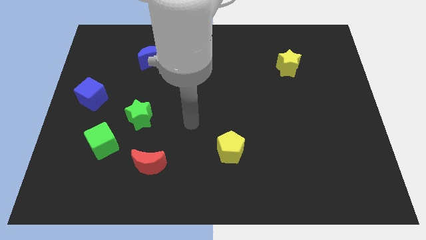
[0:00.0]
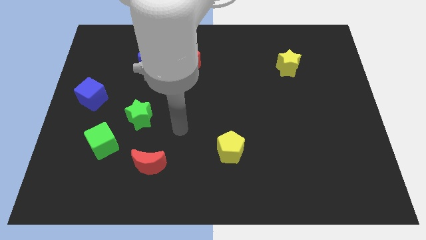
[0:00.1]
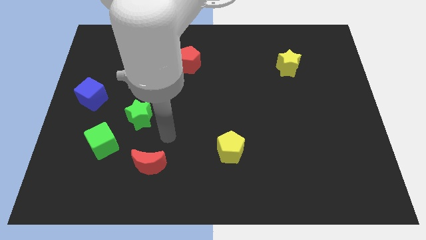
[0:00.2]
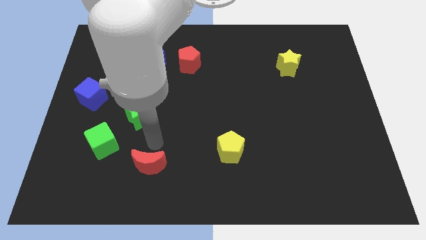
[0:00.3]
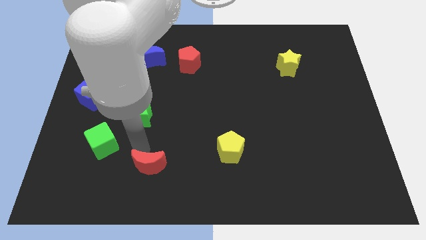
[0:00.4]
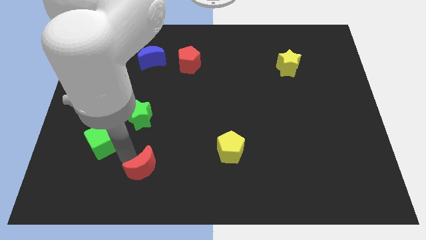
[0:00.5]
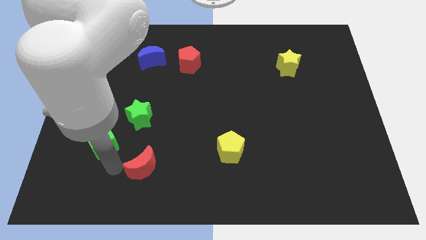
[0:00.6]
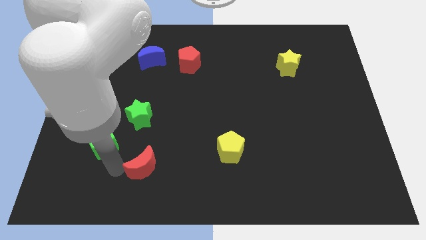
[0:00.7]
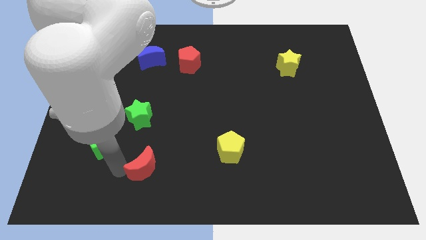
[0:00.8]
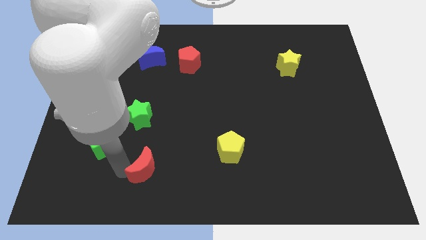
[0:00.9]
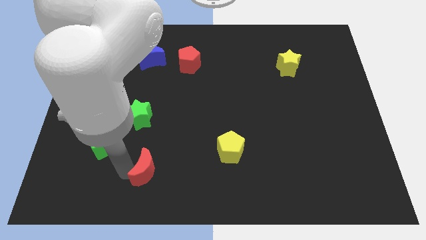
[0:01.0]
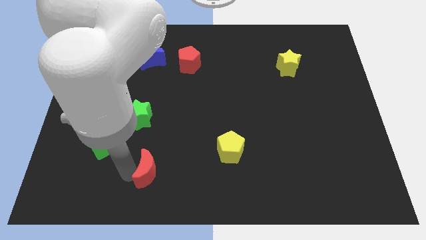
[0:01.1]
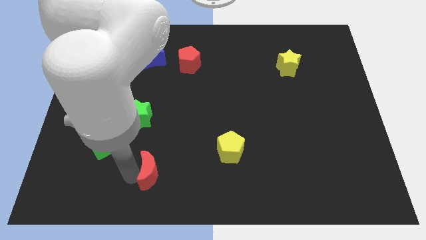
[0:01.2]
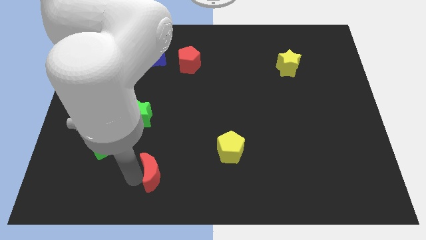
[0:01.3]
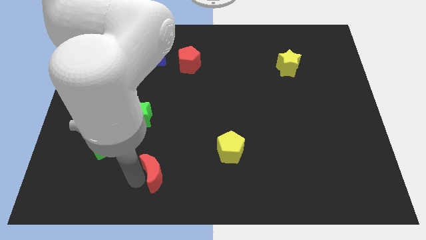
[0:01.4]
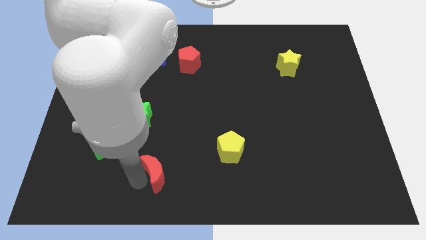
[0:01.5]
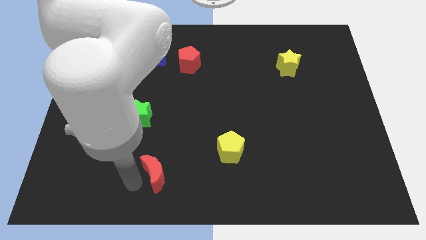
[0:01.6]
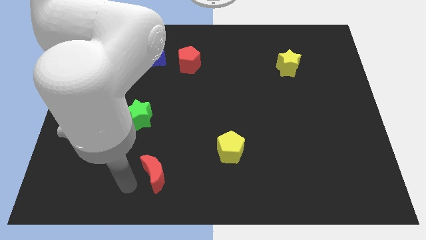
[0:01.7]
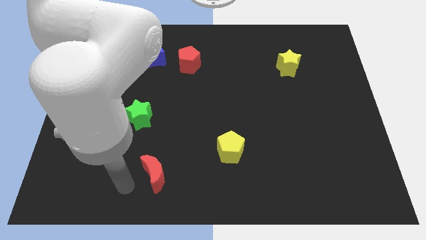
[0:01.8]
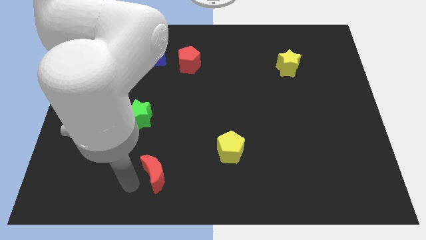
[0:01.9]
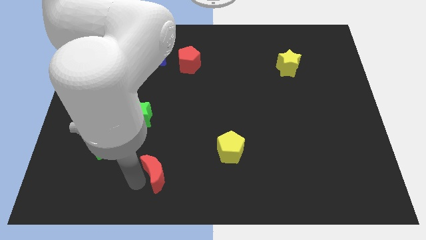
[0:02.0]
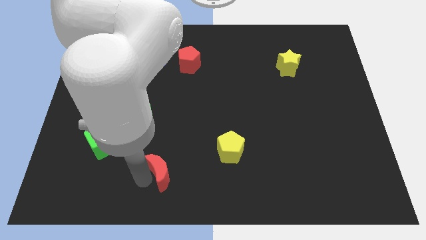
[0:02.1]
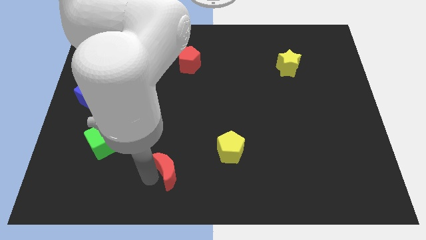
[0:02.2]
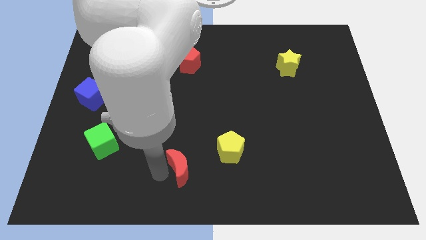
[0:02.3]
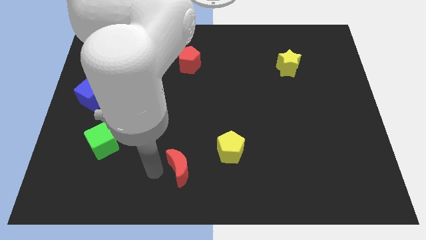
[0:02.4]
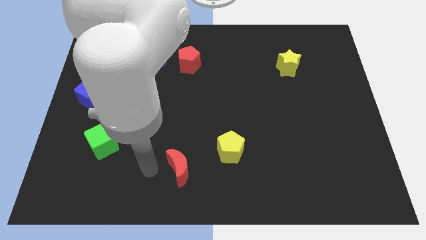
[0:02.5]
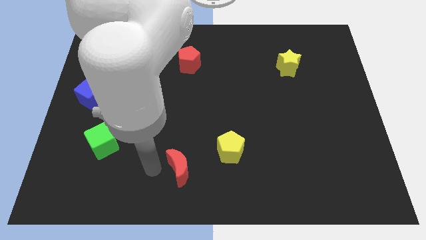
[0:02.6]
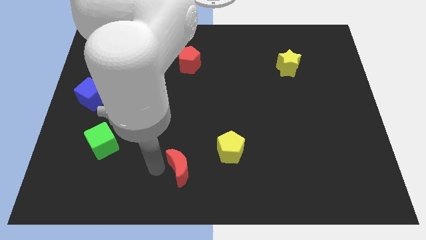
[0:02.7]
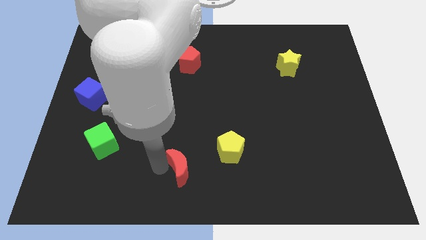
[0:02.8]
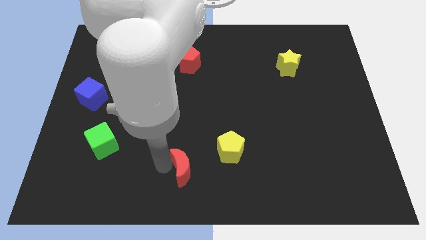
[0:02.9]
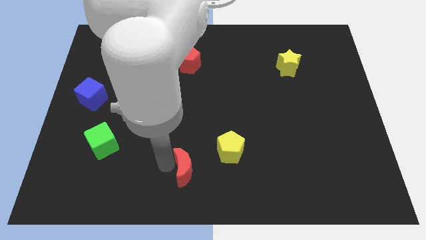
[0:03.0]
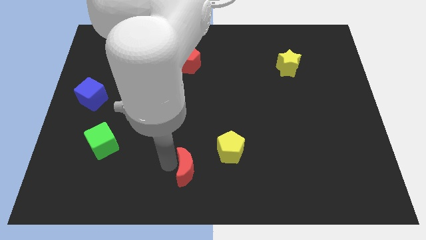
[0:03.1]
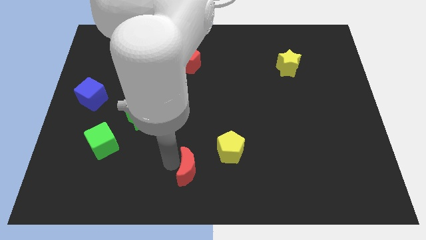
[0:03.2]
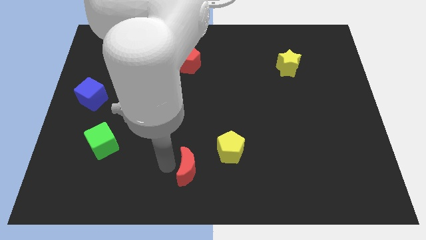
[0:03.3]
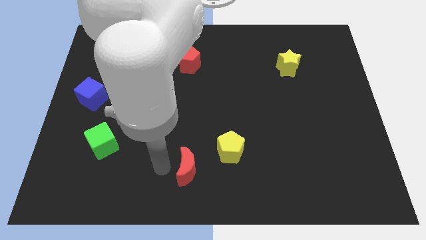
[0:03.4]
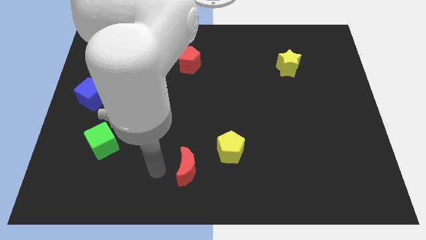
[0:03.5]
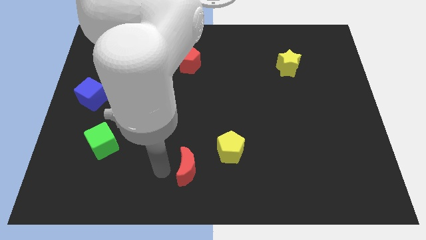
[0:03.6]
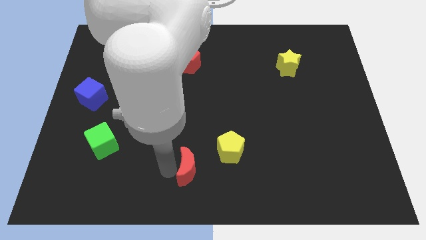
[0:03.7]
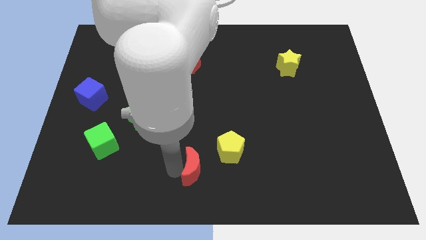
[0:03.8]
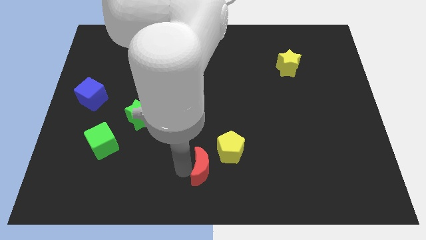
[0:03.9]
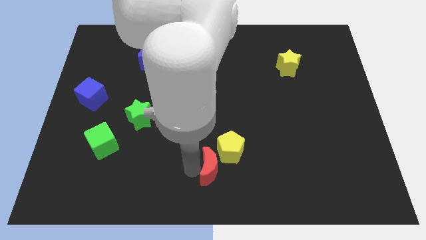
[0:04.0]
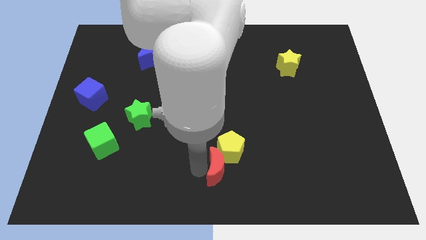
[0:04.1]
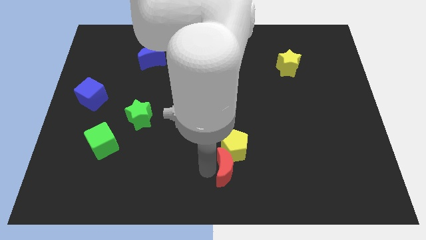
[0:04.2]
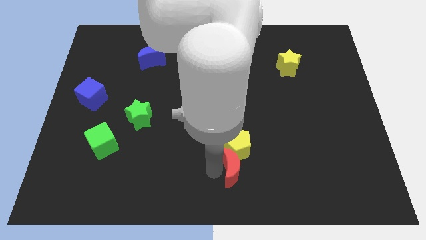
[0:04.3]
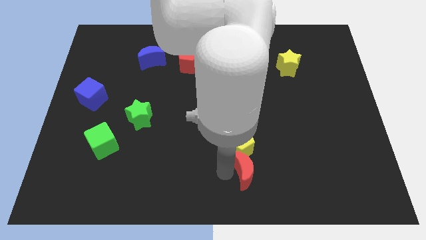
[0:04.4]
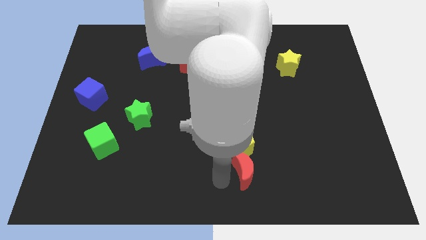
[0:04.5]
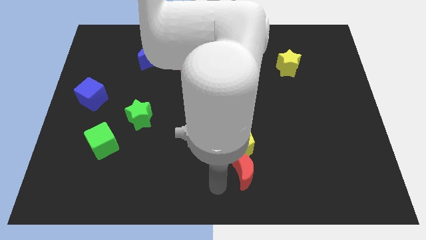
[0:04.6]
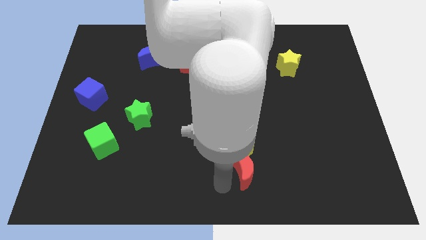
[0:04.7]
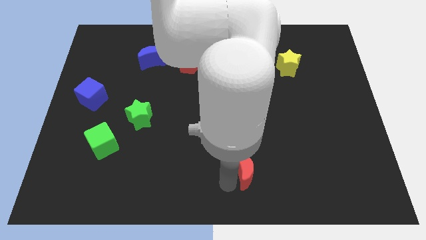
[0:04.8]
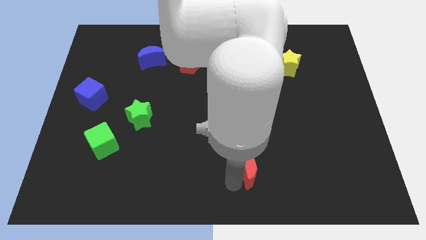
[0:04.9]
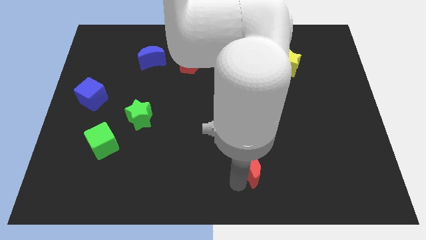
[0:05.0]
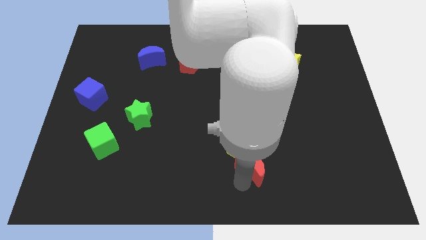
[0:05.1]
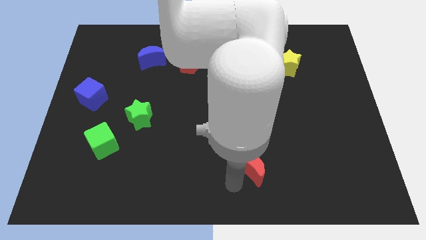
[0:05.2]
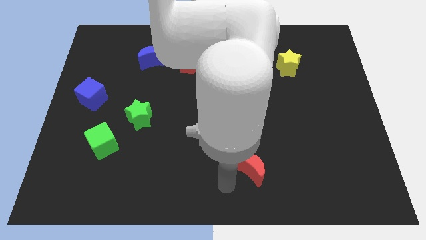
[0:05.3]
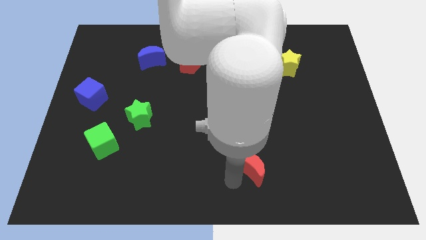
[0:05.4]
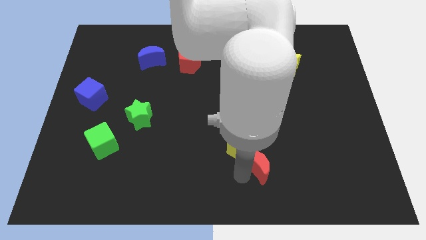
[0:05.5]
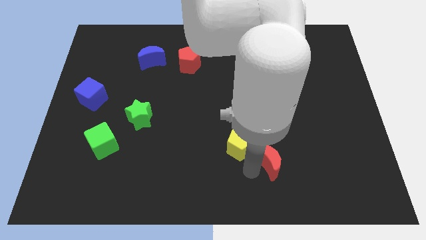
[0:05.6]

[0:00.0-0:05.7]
slide the red moon just right of the yellow pentagon
